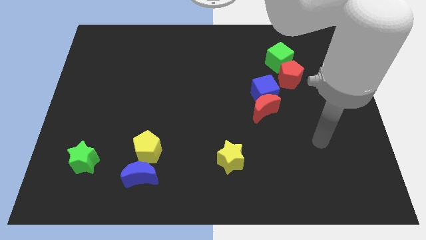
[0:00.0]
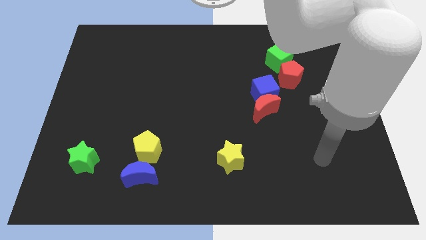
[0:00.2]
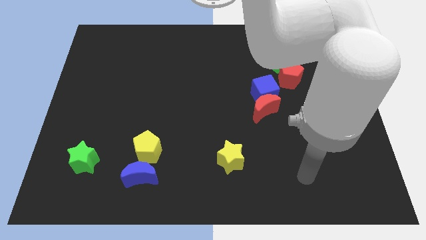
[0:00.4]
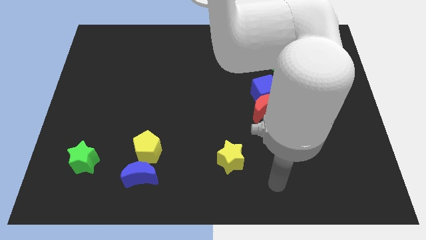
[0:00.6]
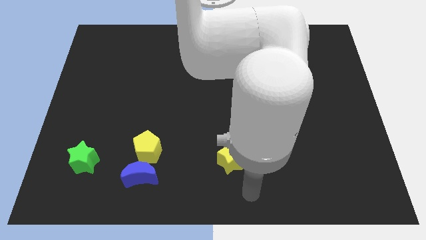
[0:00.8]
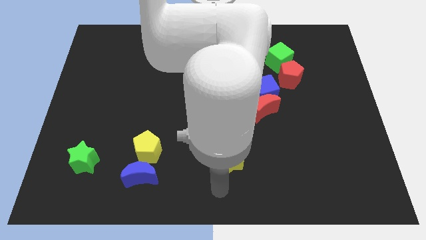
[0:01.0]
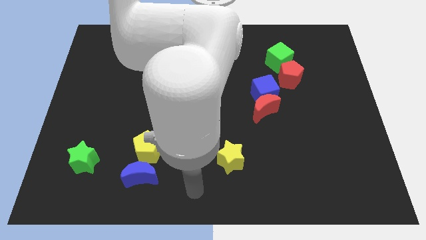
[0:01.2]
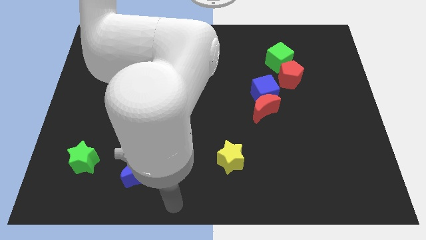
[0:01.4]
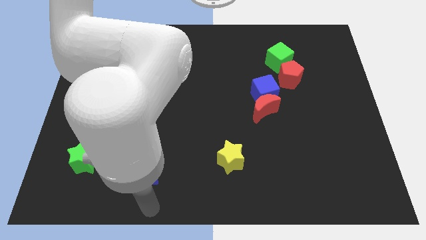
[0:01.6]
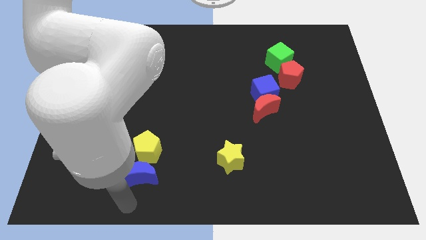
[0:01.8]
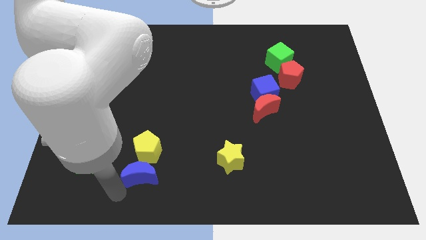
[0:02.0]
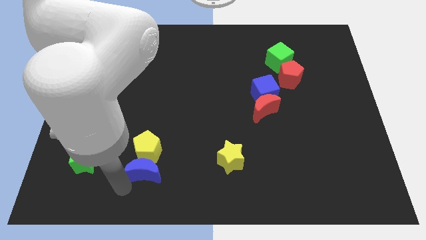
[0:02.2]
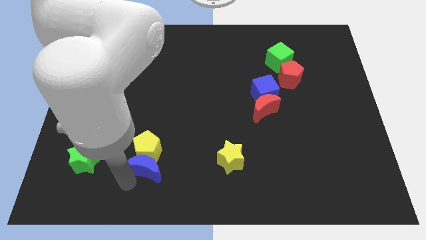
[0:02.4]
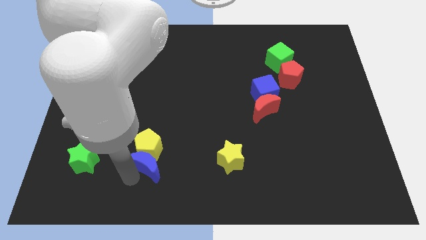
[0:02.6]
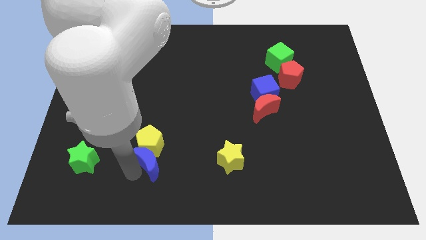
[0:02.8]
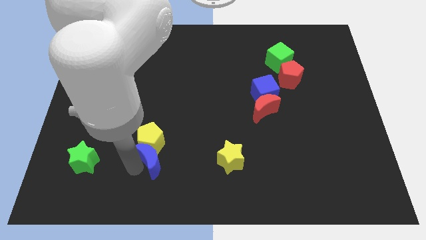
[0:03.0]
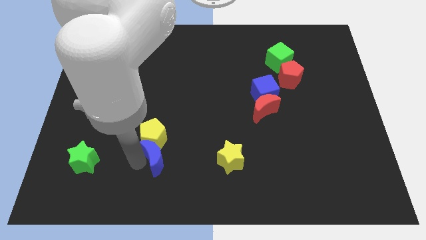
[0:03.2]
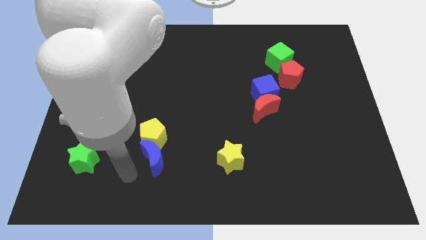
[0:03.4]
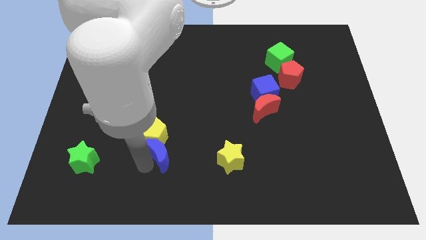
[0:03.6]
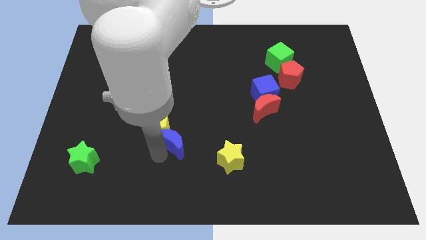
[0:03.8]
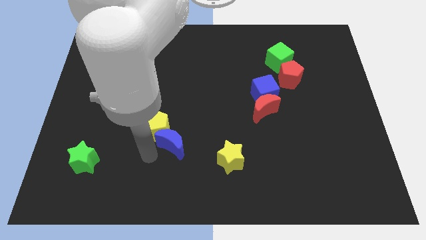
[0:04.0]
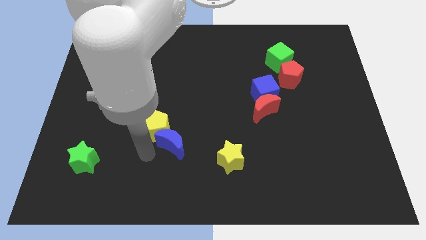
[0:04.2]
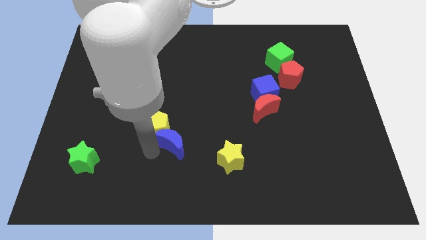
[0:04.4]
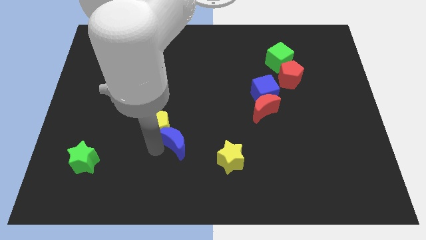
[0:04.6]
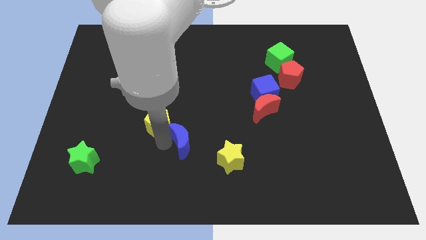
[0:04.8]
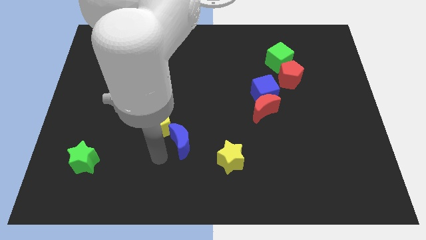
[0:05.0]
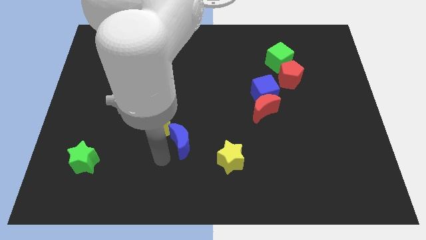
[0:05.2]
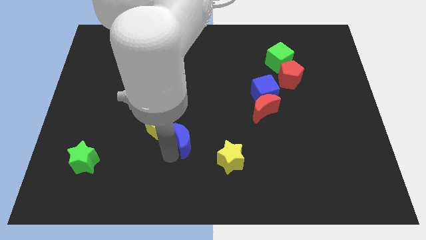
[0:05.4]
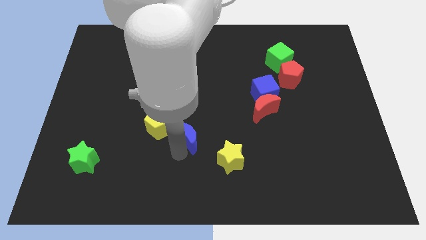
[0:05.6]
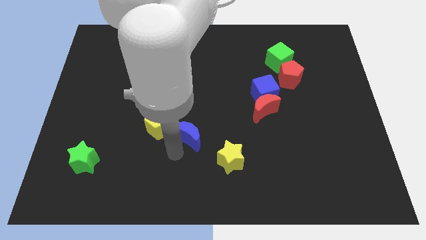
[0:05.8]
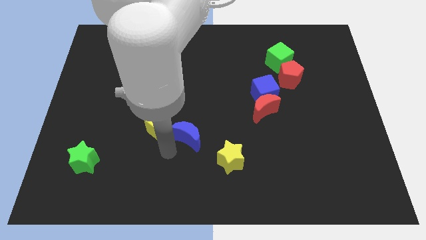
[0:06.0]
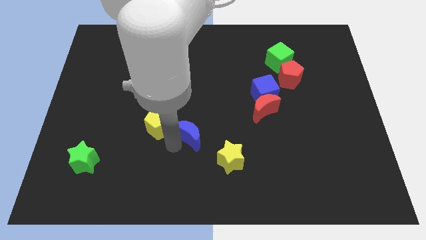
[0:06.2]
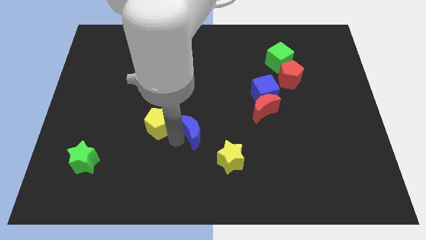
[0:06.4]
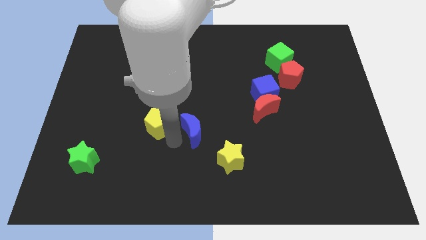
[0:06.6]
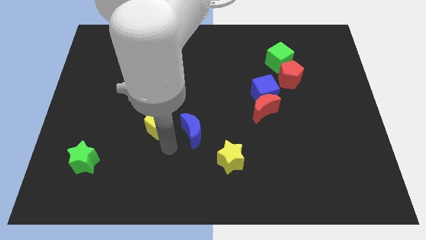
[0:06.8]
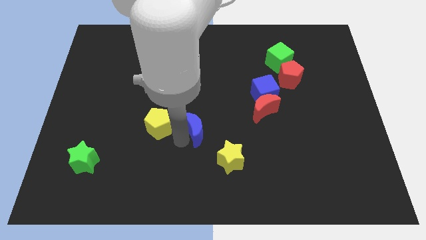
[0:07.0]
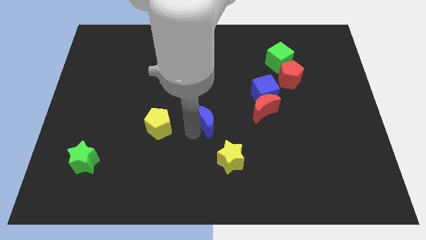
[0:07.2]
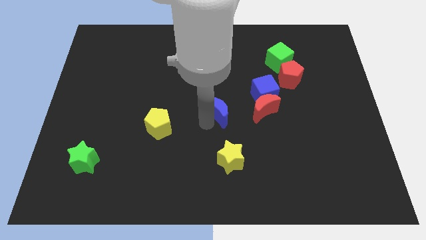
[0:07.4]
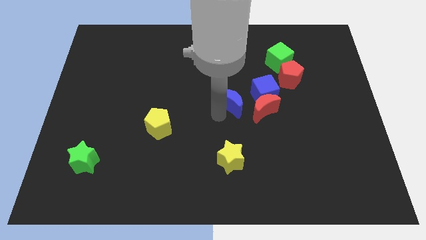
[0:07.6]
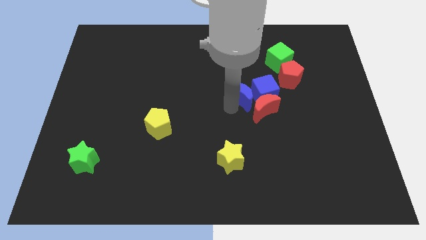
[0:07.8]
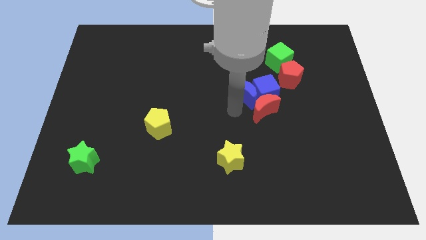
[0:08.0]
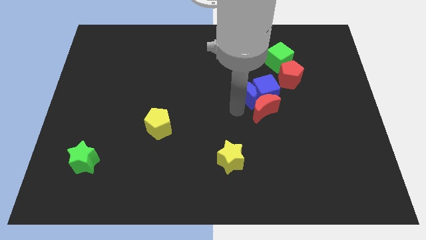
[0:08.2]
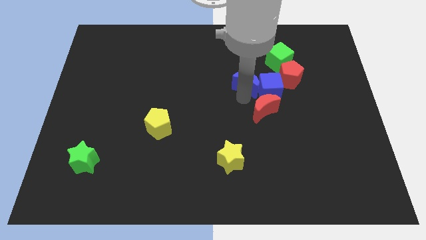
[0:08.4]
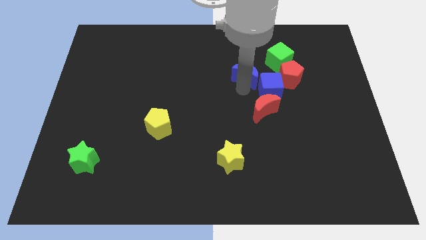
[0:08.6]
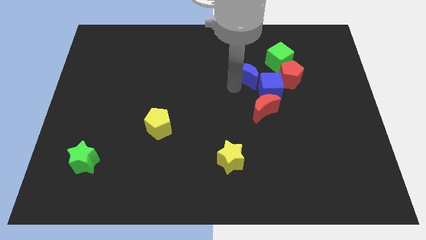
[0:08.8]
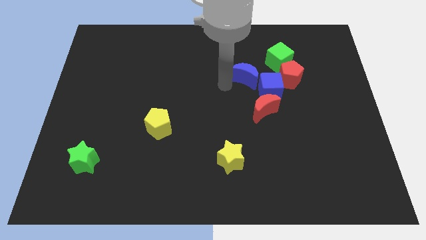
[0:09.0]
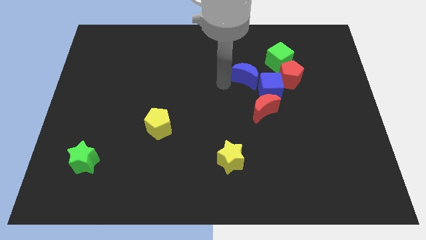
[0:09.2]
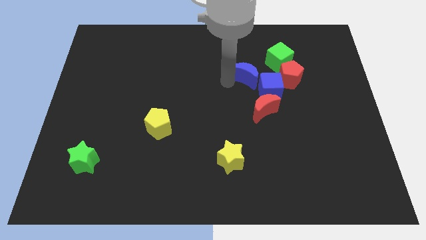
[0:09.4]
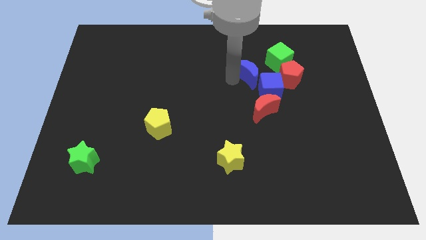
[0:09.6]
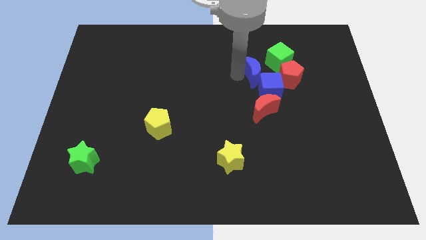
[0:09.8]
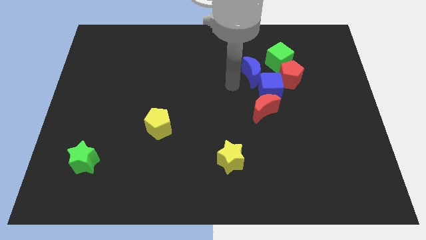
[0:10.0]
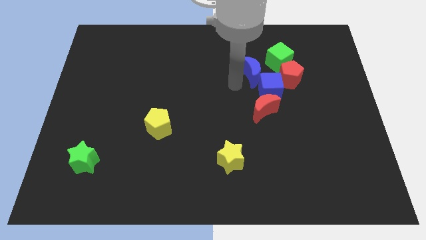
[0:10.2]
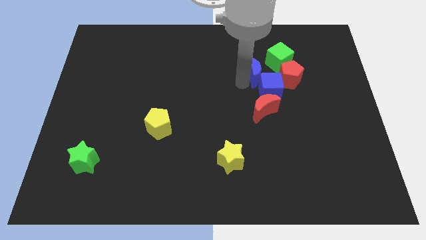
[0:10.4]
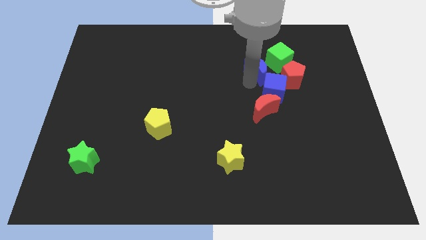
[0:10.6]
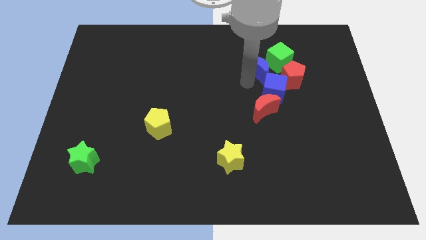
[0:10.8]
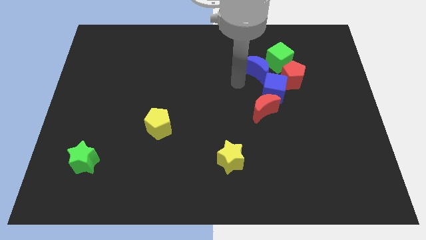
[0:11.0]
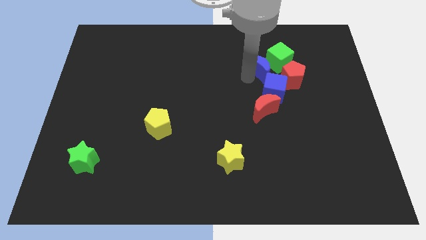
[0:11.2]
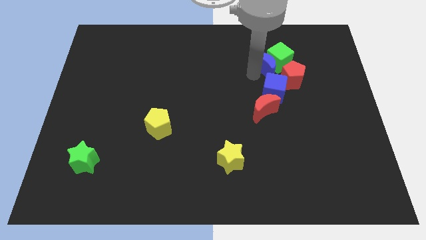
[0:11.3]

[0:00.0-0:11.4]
slide the blue moon to the green cube
